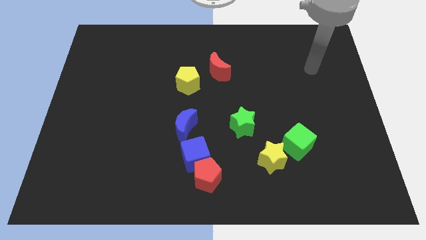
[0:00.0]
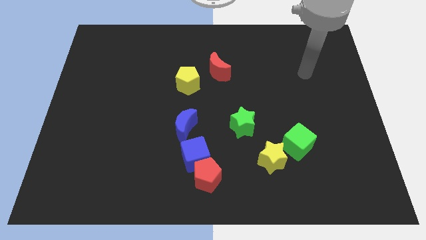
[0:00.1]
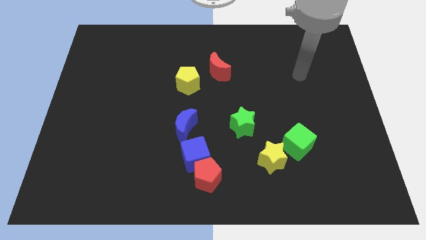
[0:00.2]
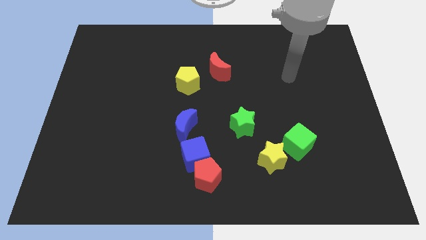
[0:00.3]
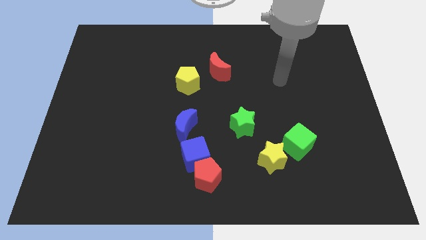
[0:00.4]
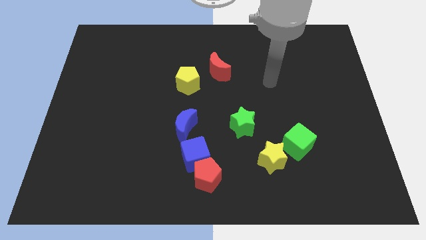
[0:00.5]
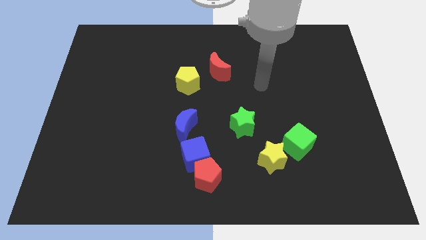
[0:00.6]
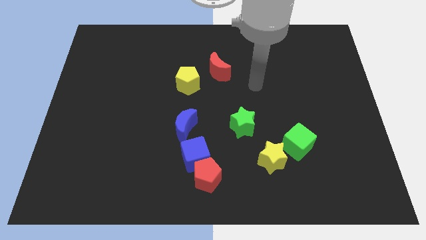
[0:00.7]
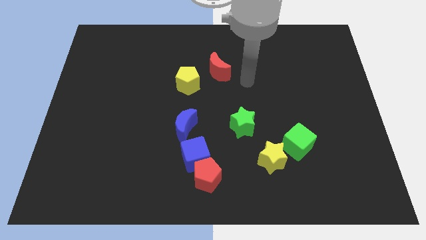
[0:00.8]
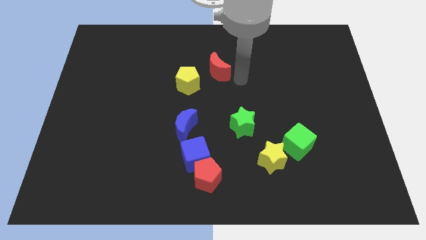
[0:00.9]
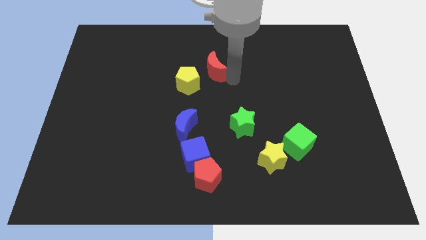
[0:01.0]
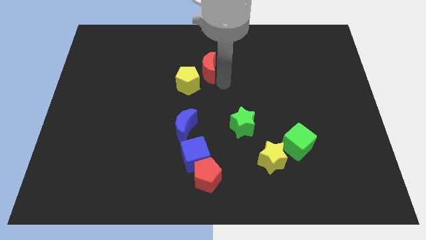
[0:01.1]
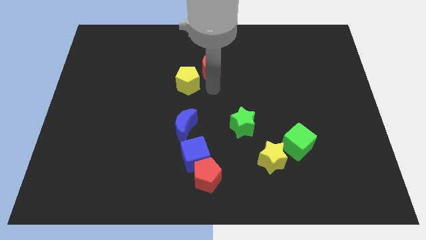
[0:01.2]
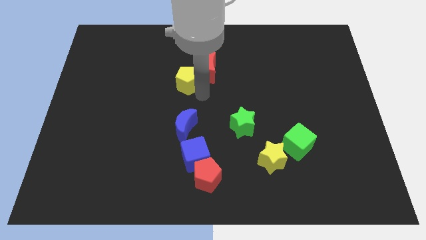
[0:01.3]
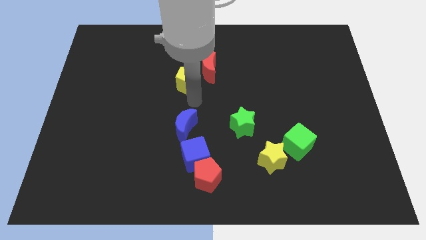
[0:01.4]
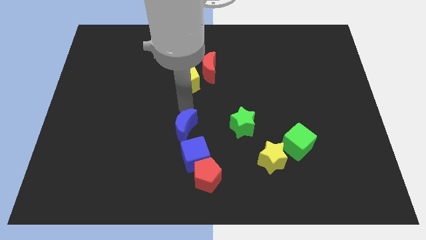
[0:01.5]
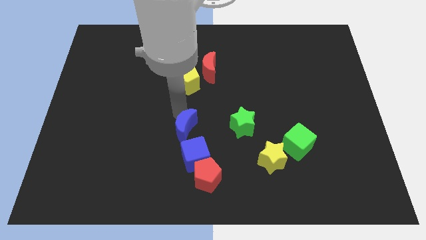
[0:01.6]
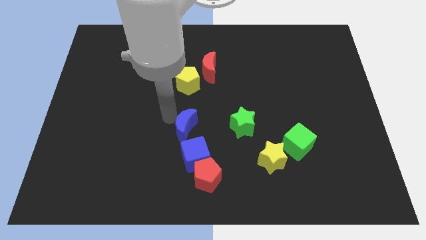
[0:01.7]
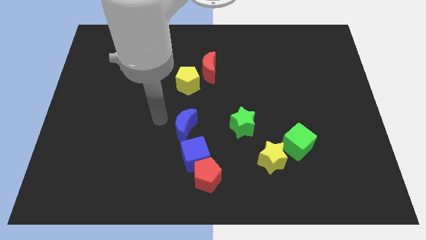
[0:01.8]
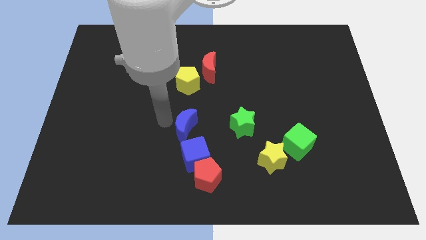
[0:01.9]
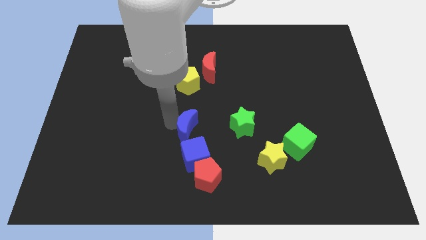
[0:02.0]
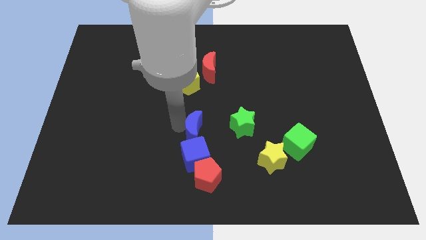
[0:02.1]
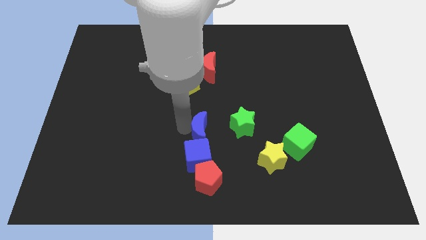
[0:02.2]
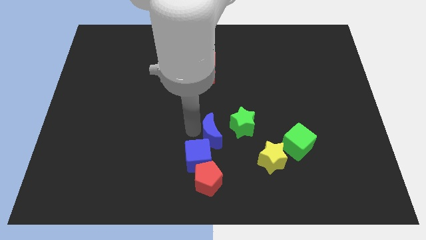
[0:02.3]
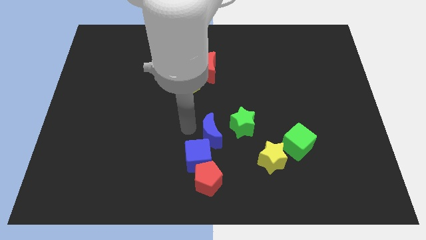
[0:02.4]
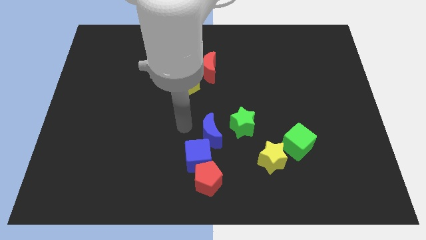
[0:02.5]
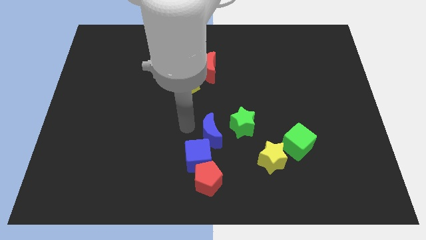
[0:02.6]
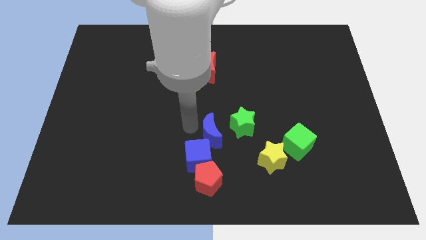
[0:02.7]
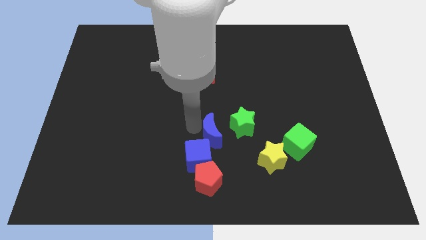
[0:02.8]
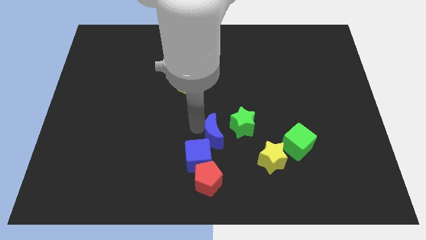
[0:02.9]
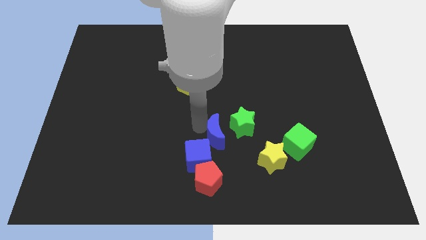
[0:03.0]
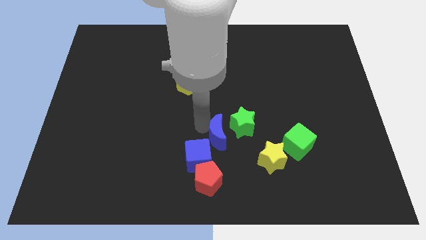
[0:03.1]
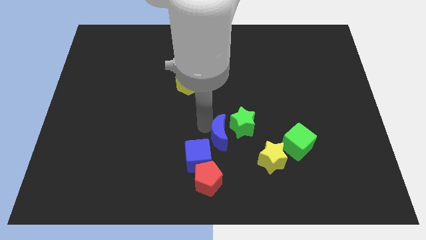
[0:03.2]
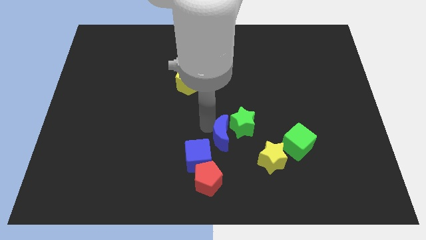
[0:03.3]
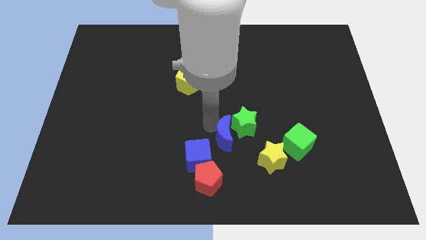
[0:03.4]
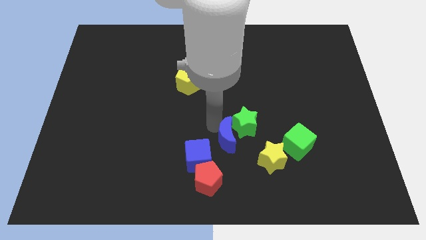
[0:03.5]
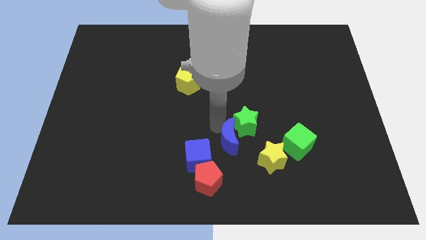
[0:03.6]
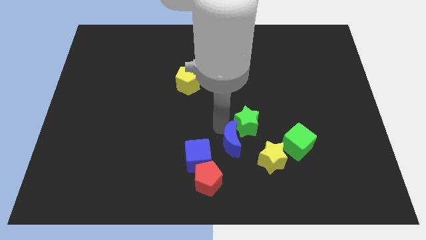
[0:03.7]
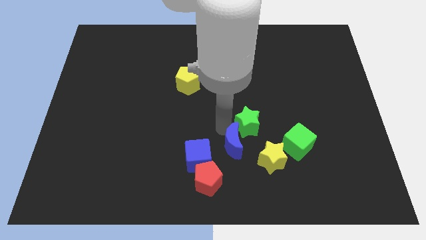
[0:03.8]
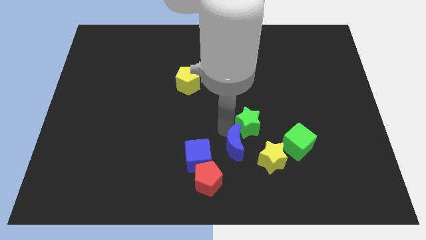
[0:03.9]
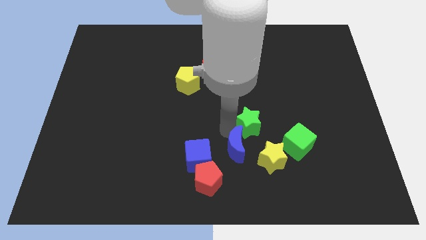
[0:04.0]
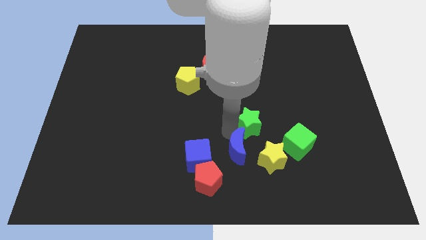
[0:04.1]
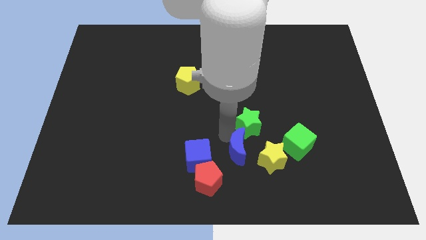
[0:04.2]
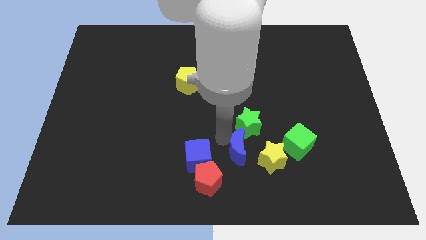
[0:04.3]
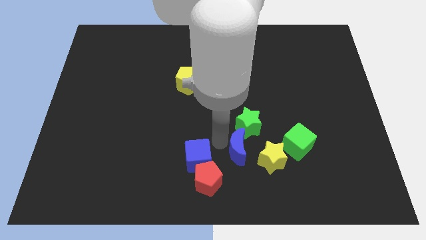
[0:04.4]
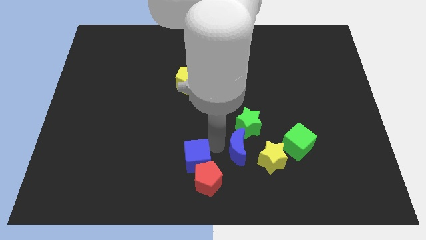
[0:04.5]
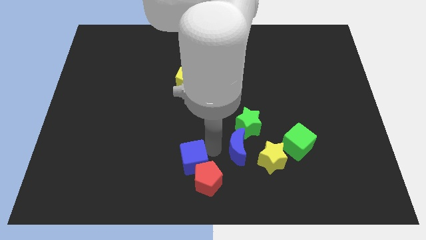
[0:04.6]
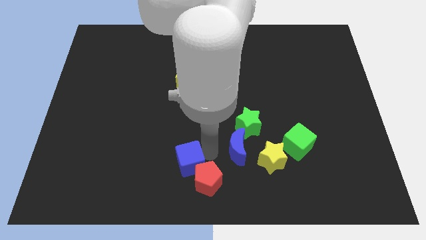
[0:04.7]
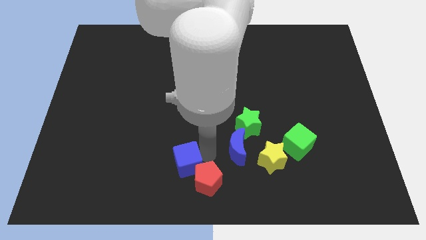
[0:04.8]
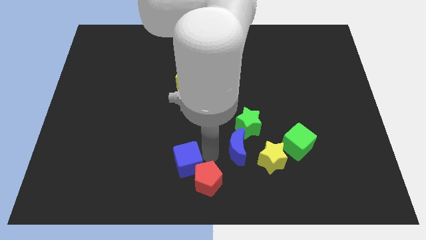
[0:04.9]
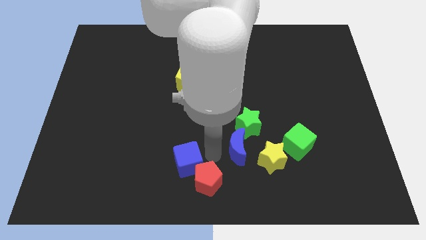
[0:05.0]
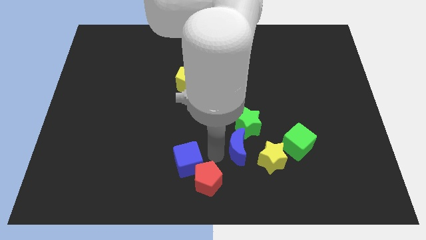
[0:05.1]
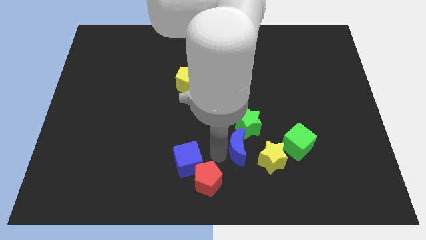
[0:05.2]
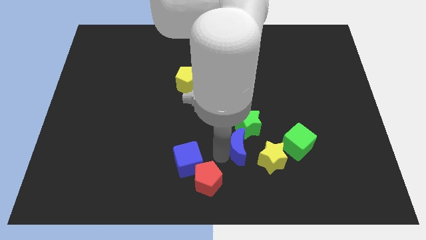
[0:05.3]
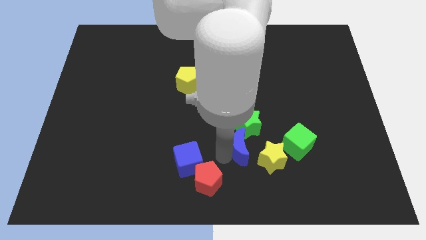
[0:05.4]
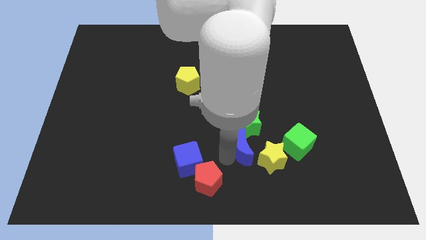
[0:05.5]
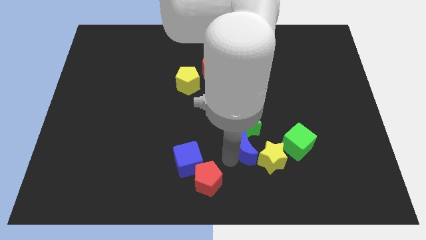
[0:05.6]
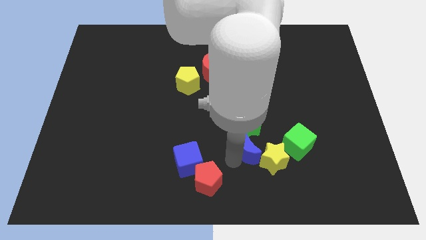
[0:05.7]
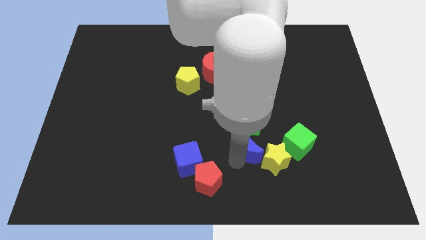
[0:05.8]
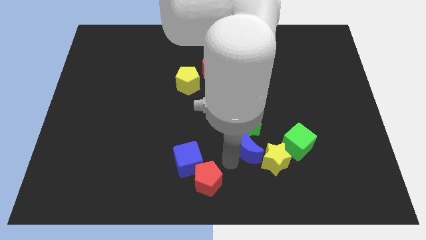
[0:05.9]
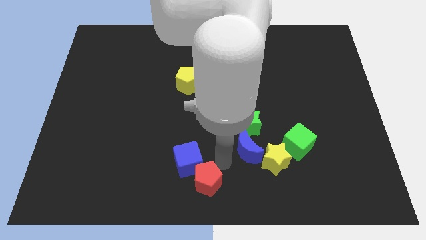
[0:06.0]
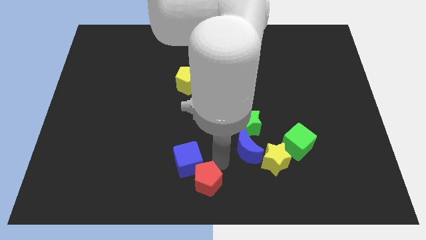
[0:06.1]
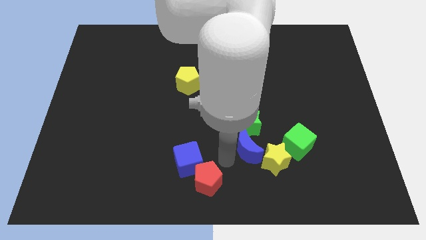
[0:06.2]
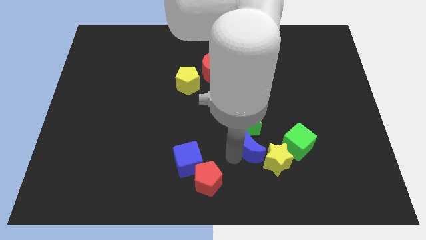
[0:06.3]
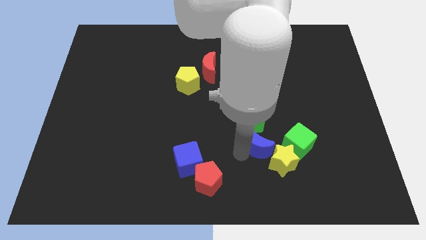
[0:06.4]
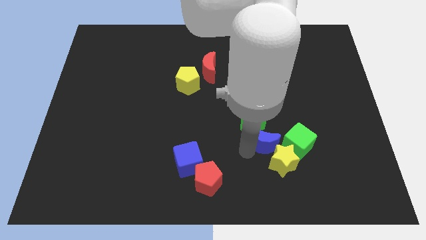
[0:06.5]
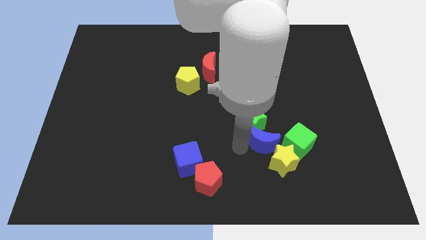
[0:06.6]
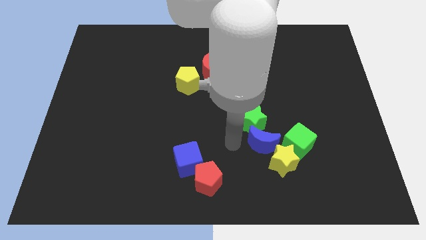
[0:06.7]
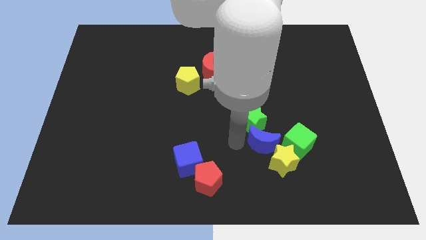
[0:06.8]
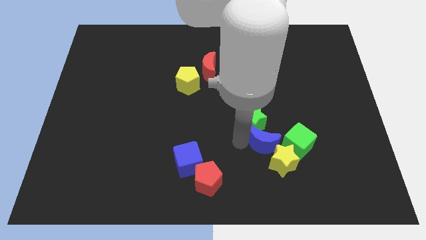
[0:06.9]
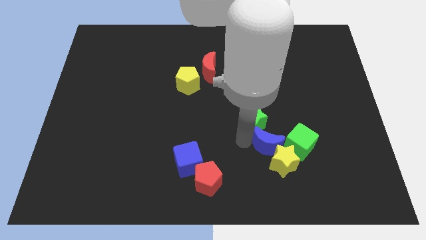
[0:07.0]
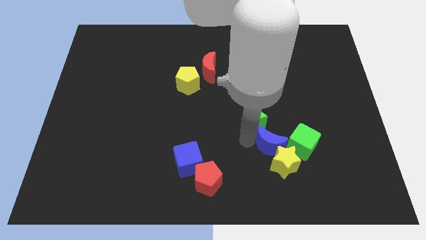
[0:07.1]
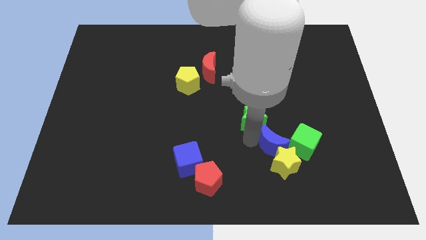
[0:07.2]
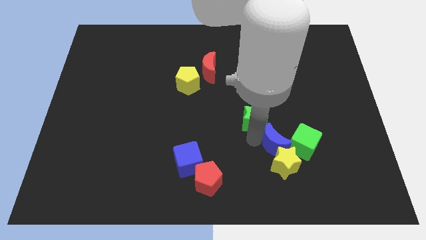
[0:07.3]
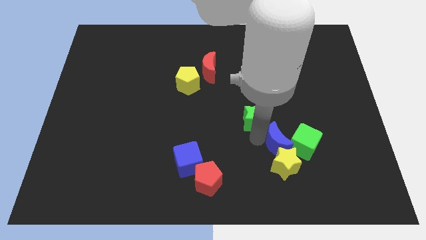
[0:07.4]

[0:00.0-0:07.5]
move the blue moon next to the green cube
